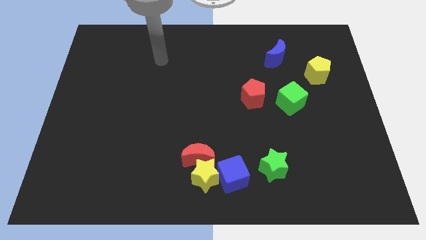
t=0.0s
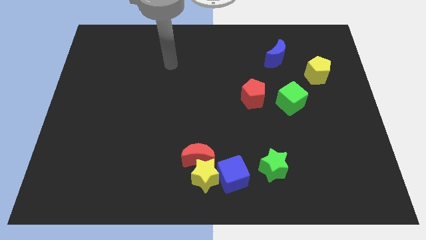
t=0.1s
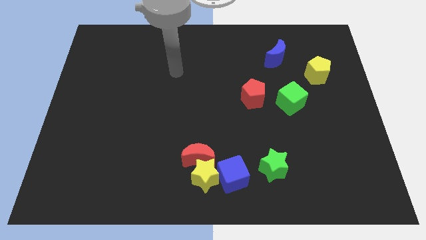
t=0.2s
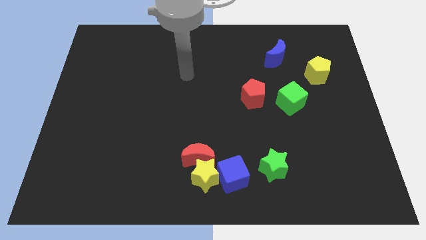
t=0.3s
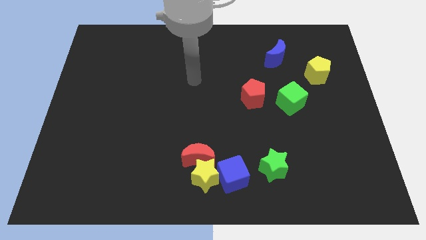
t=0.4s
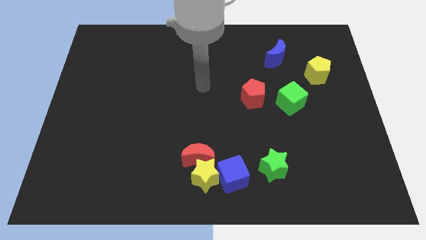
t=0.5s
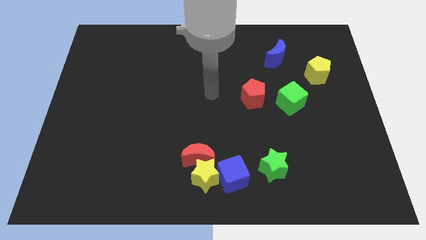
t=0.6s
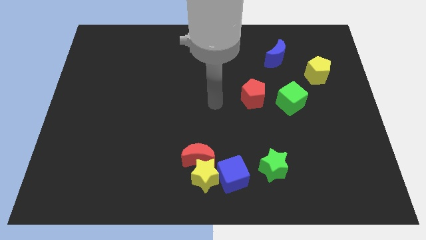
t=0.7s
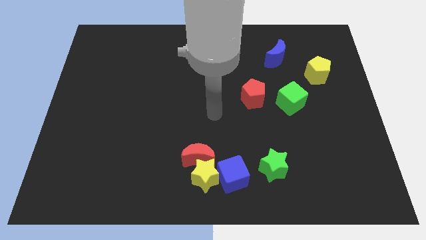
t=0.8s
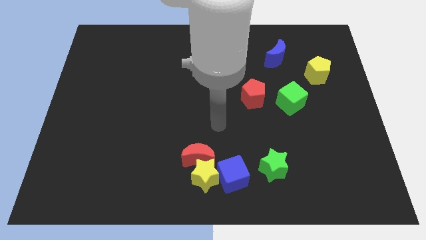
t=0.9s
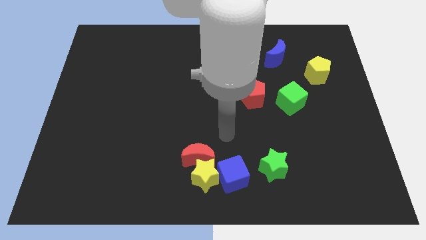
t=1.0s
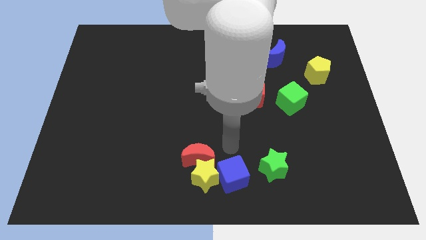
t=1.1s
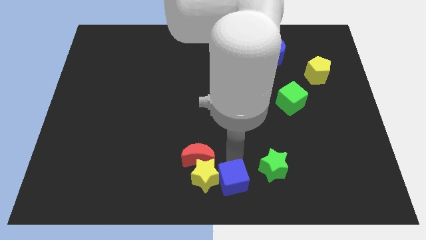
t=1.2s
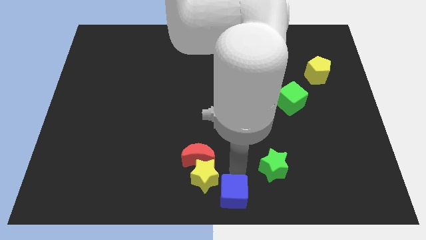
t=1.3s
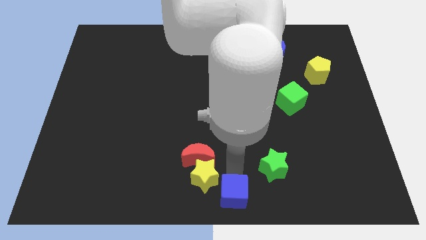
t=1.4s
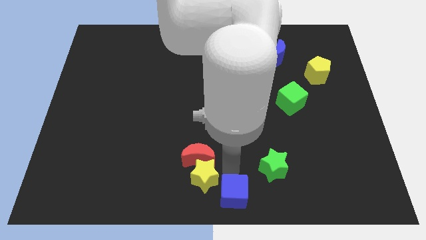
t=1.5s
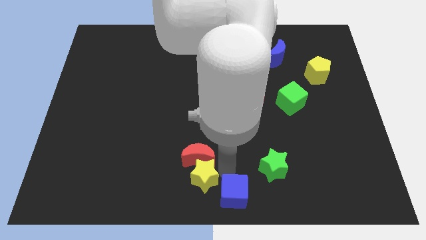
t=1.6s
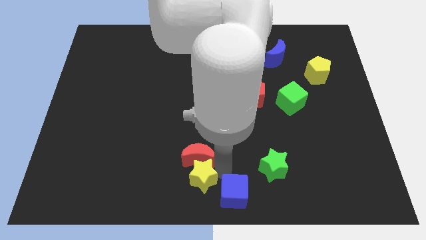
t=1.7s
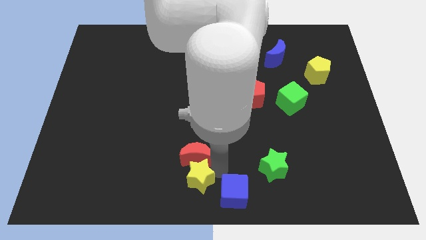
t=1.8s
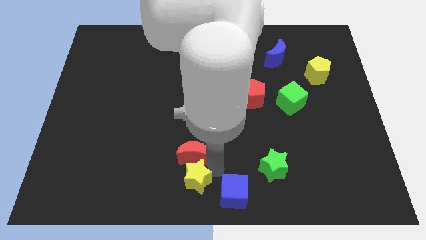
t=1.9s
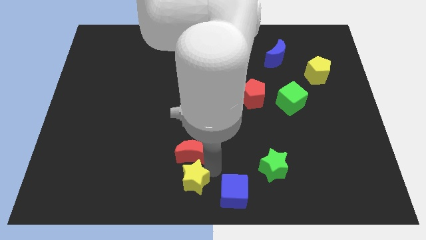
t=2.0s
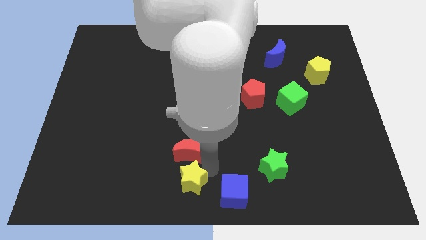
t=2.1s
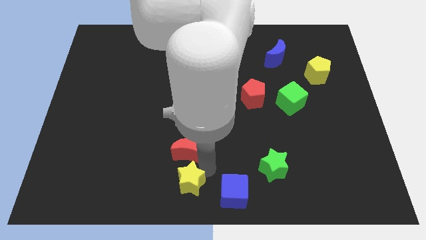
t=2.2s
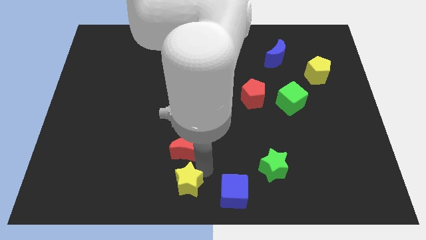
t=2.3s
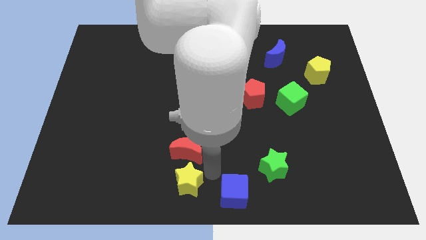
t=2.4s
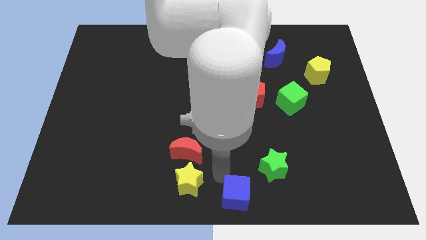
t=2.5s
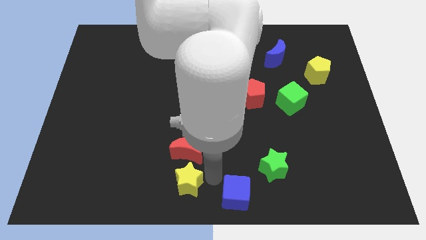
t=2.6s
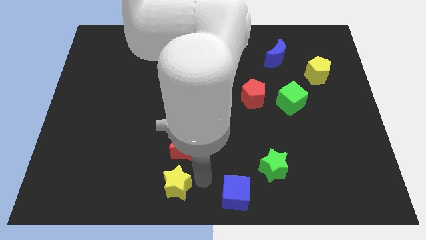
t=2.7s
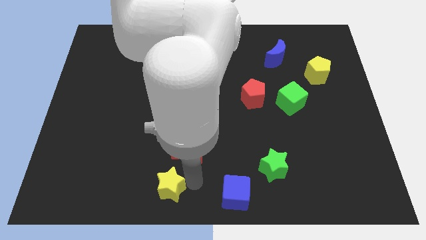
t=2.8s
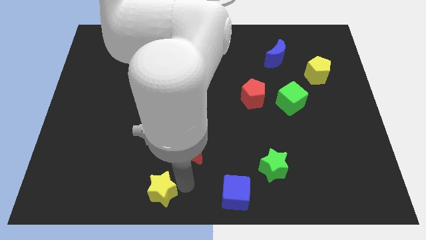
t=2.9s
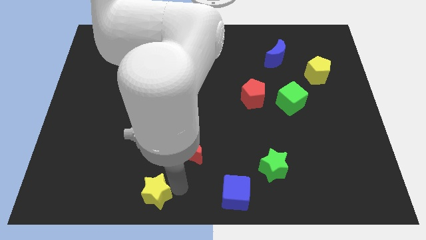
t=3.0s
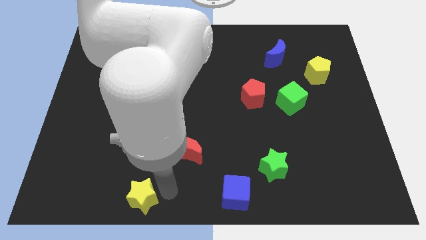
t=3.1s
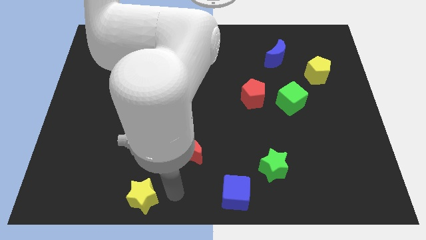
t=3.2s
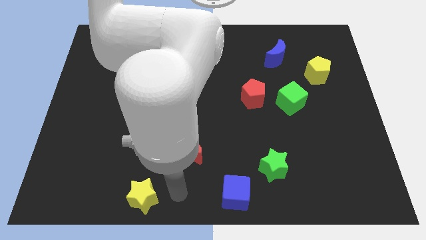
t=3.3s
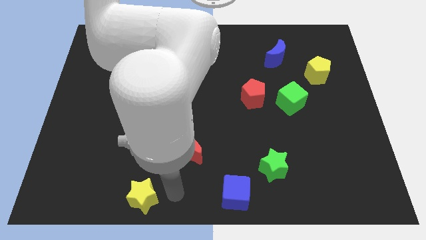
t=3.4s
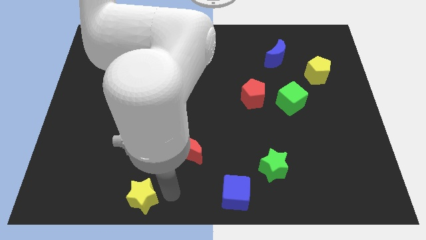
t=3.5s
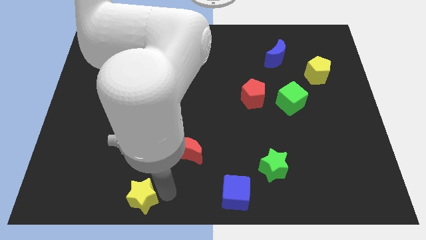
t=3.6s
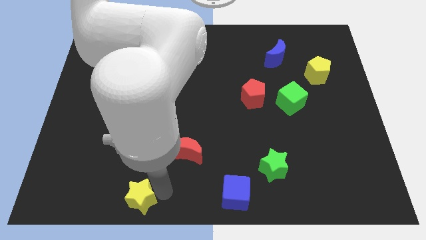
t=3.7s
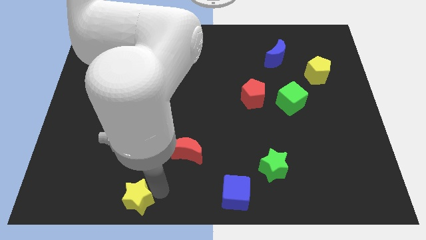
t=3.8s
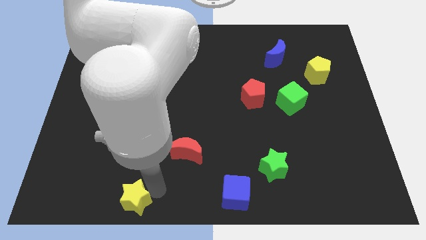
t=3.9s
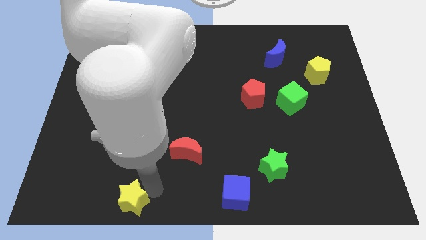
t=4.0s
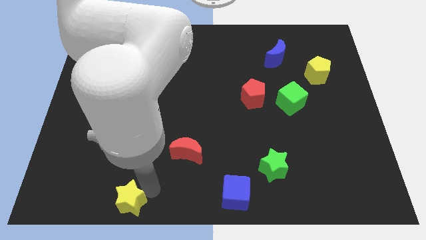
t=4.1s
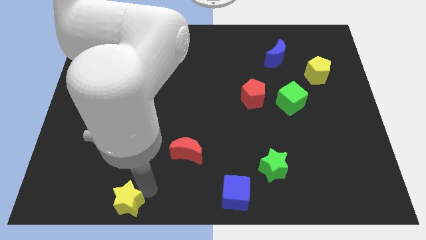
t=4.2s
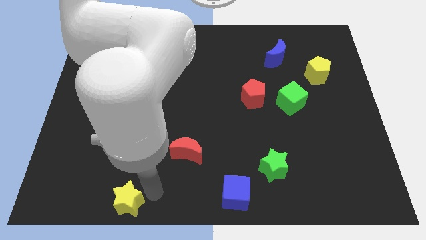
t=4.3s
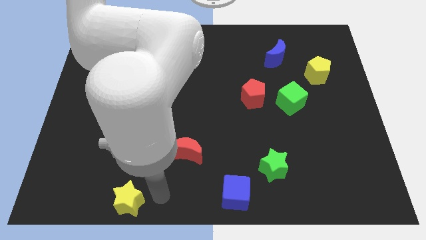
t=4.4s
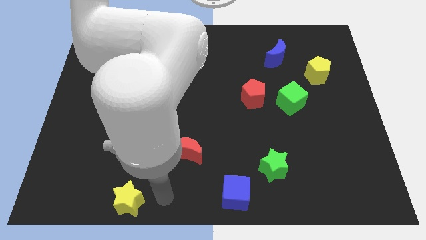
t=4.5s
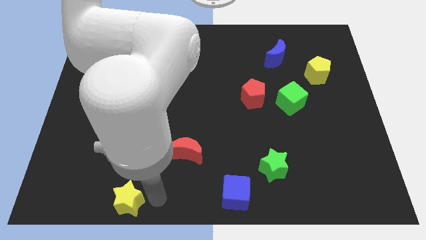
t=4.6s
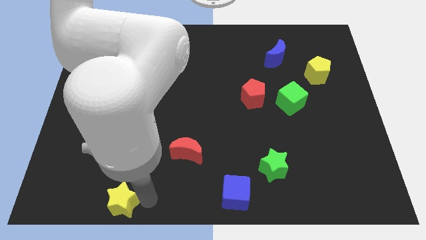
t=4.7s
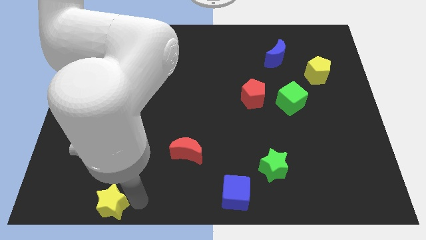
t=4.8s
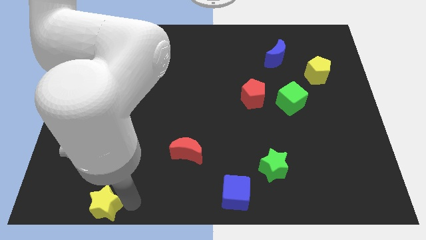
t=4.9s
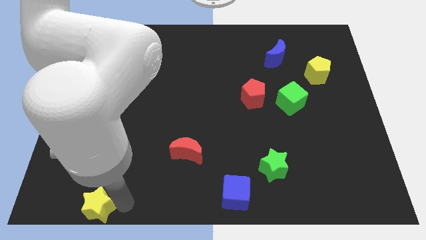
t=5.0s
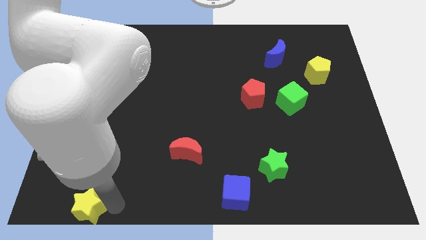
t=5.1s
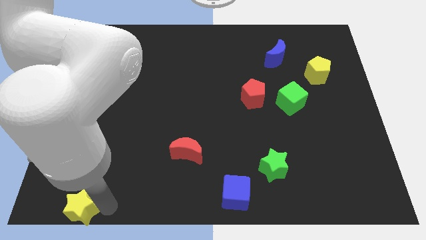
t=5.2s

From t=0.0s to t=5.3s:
put the yellow star to the bottom left of the board

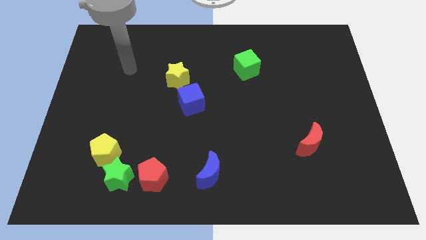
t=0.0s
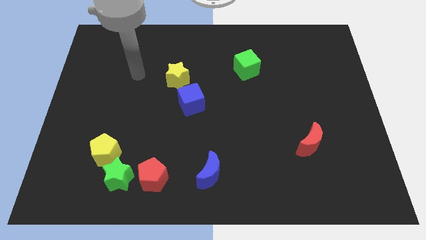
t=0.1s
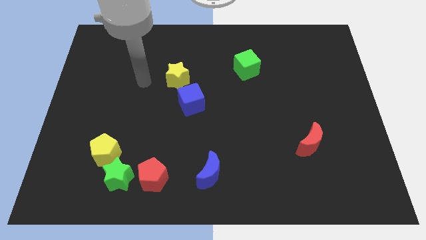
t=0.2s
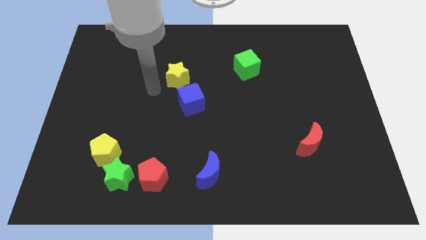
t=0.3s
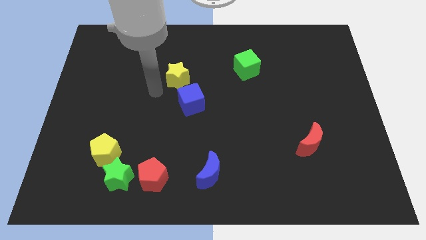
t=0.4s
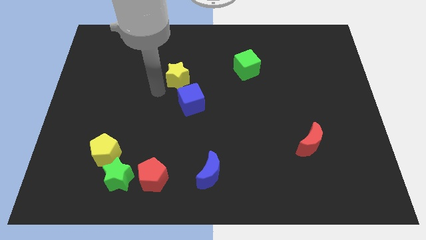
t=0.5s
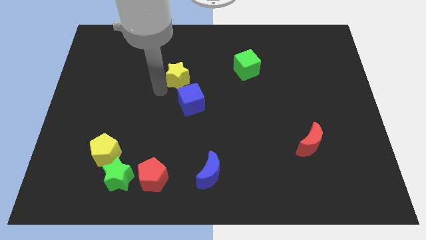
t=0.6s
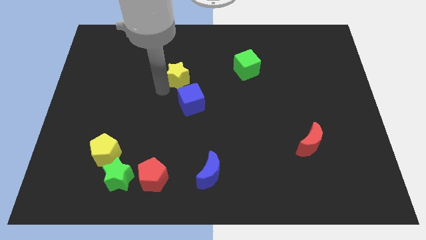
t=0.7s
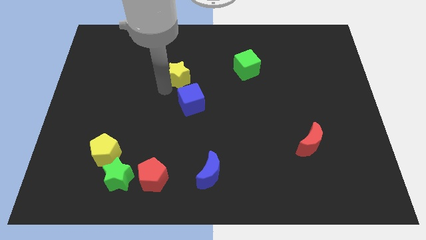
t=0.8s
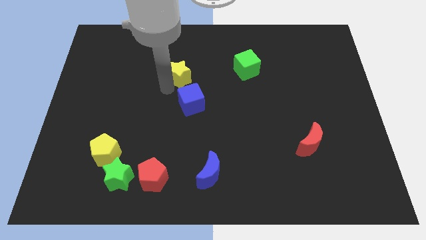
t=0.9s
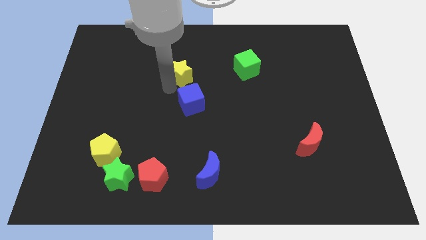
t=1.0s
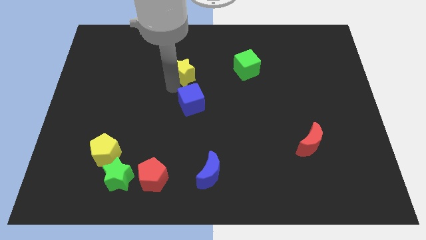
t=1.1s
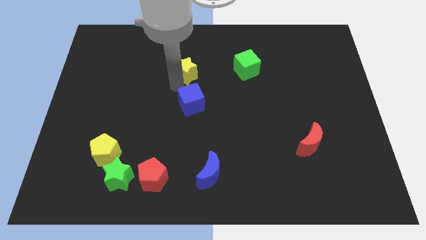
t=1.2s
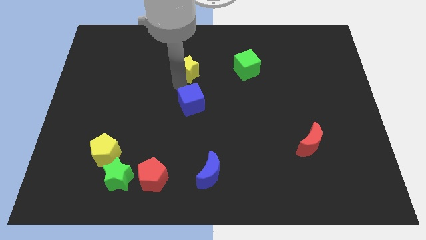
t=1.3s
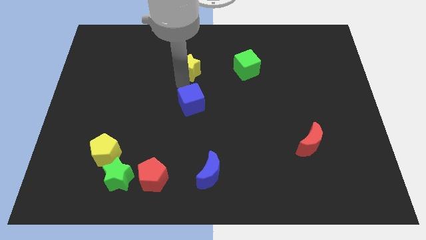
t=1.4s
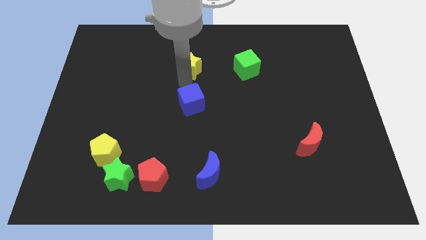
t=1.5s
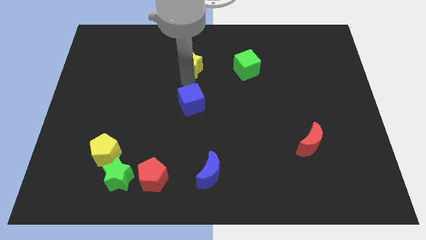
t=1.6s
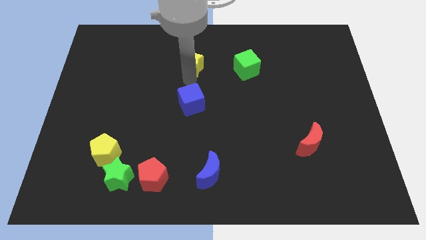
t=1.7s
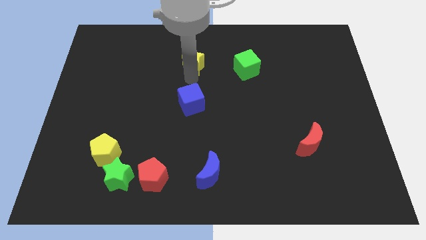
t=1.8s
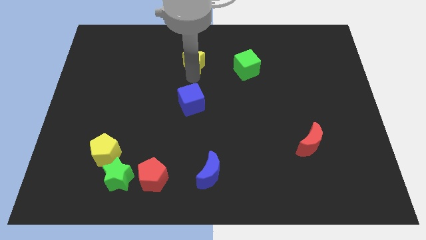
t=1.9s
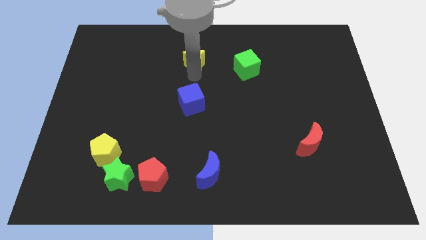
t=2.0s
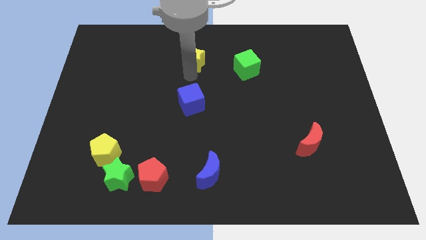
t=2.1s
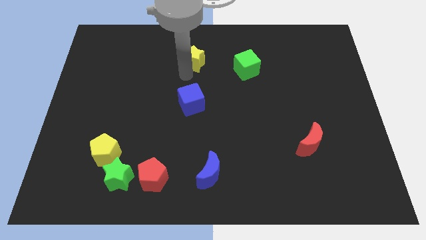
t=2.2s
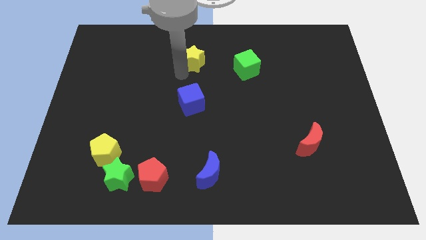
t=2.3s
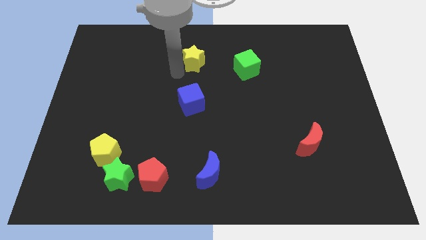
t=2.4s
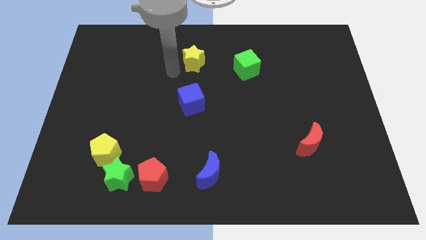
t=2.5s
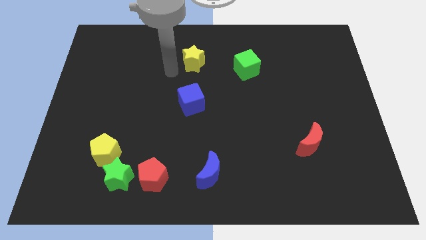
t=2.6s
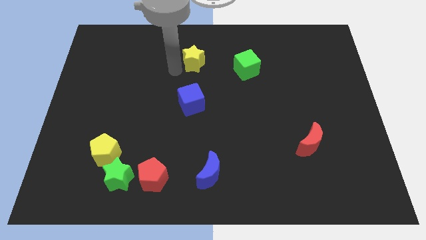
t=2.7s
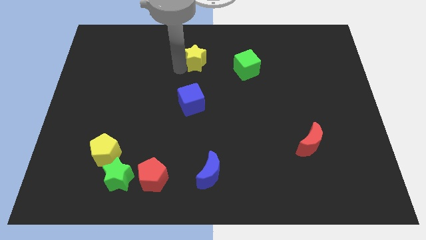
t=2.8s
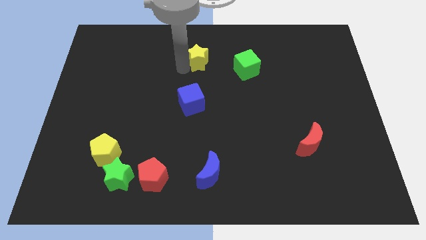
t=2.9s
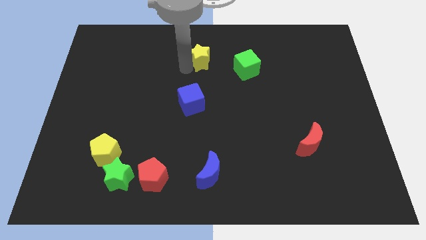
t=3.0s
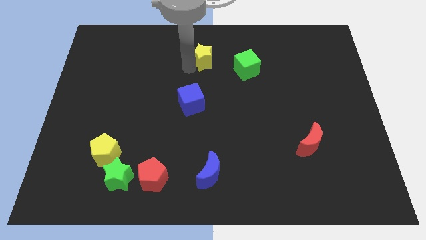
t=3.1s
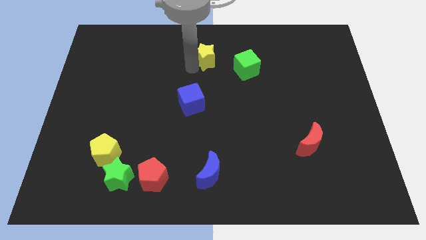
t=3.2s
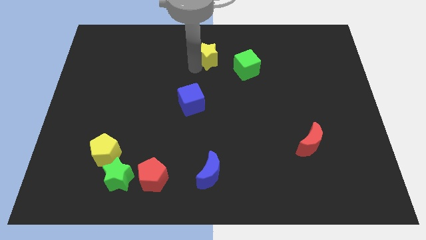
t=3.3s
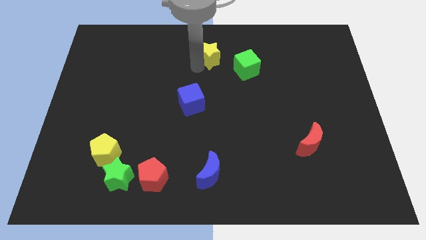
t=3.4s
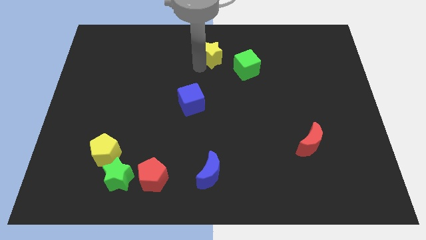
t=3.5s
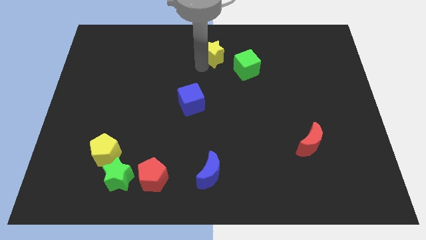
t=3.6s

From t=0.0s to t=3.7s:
move the yellow star to the top
